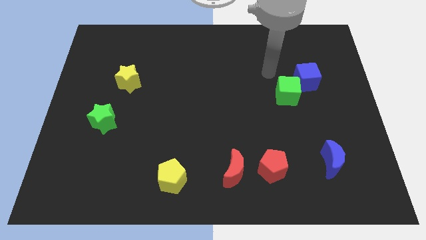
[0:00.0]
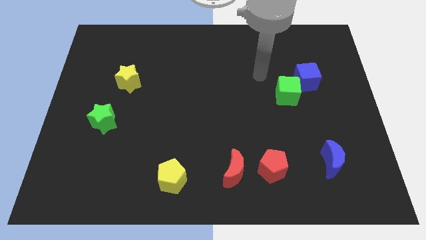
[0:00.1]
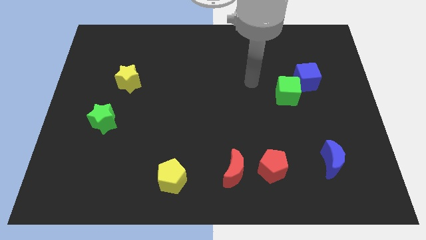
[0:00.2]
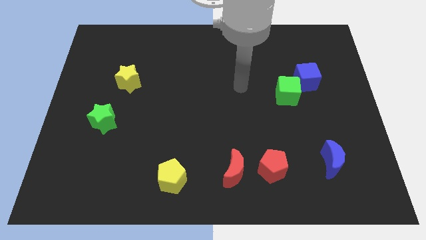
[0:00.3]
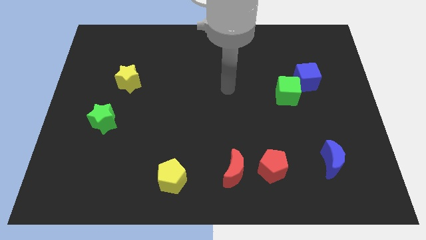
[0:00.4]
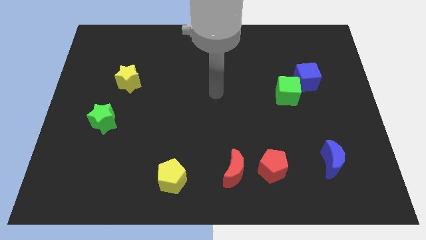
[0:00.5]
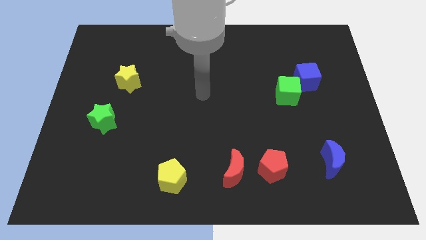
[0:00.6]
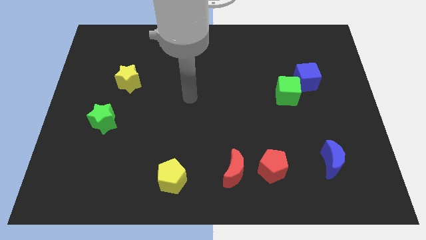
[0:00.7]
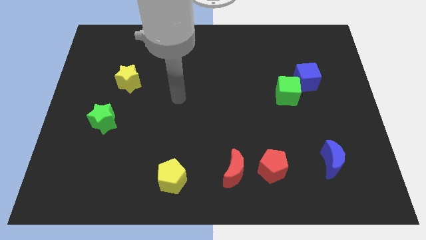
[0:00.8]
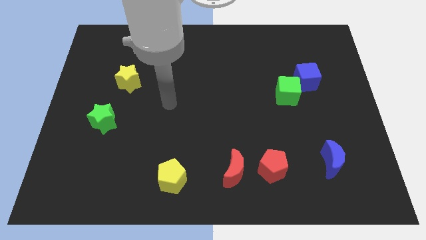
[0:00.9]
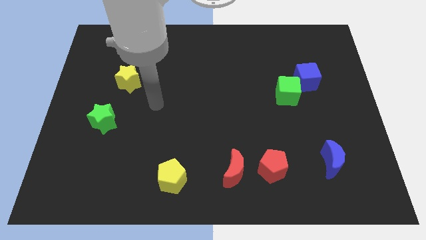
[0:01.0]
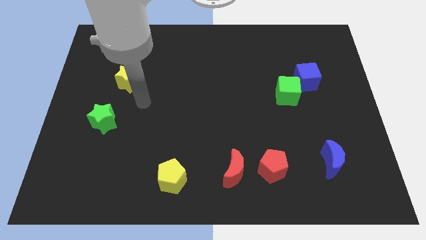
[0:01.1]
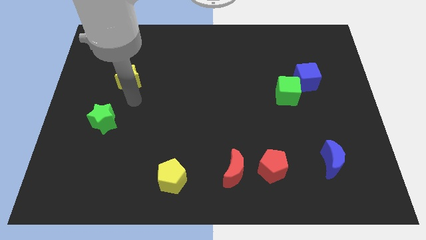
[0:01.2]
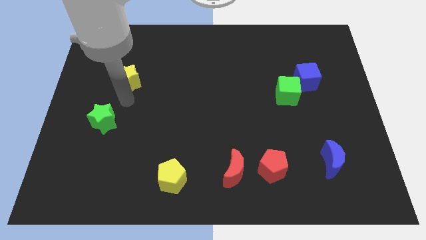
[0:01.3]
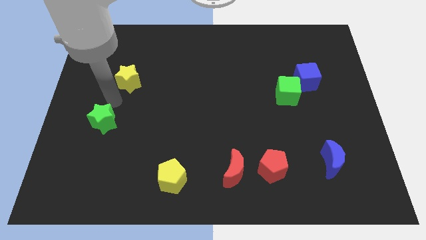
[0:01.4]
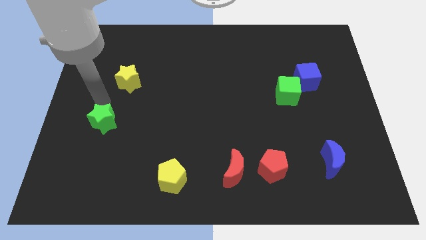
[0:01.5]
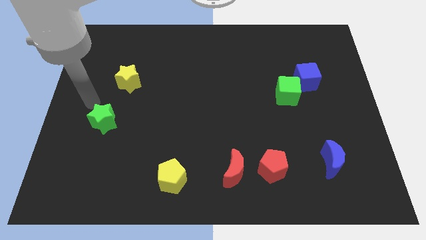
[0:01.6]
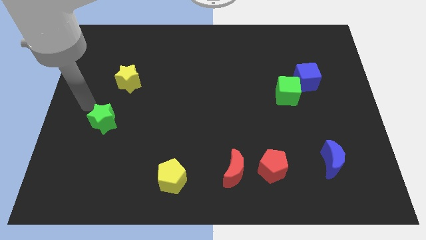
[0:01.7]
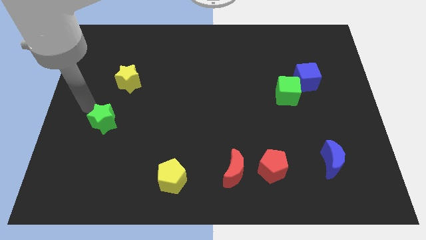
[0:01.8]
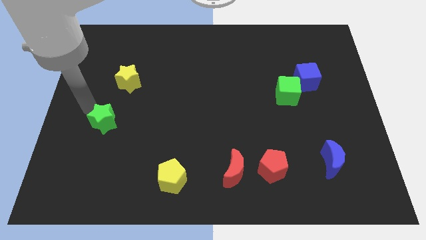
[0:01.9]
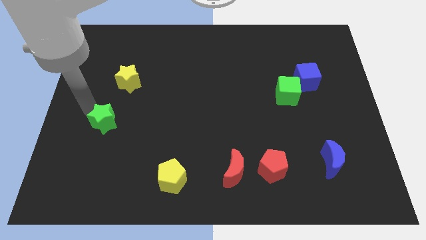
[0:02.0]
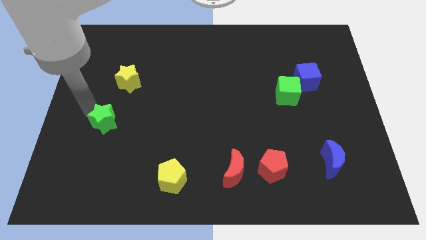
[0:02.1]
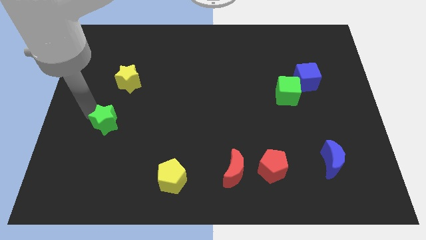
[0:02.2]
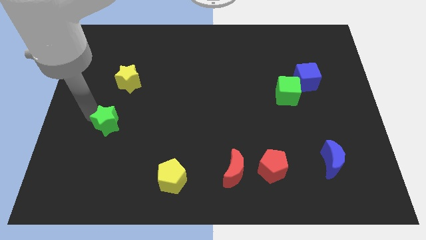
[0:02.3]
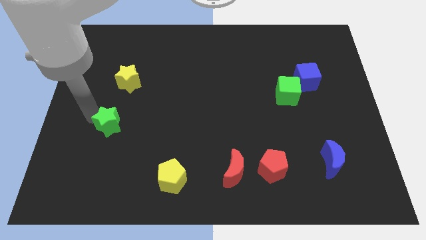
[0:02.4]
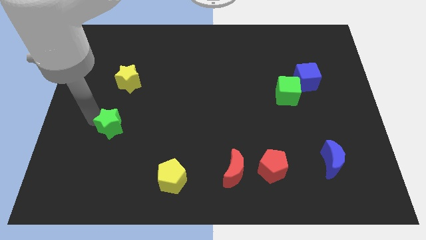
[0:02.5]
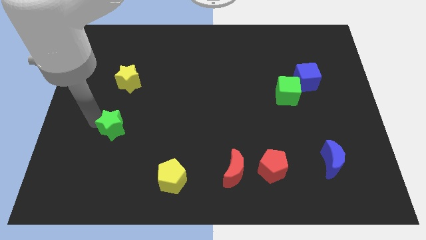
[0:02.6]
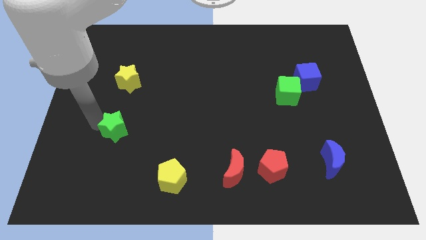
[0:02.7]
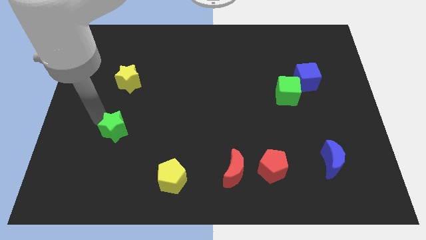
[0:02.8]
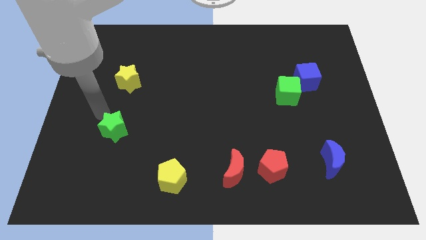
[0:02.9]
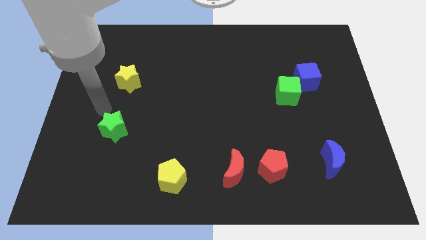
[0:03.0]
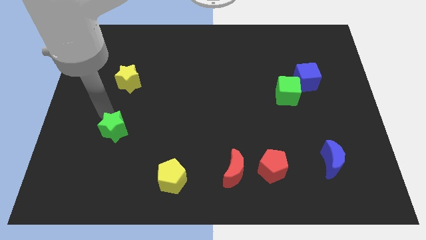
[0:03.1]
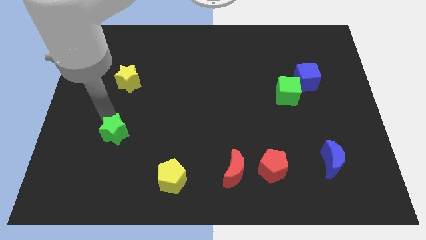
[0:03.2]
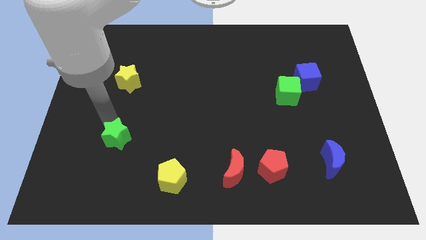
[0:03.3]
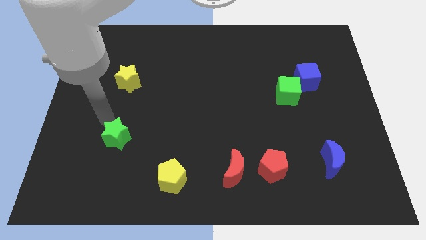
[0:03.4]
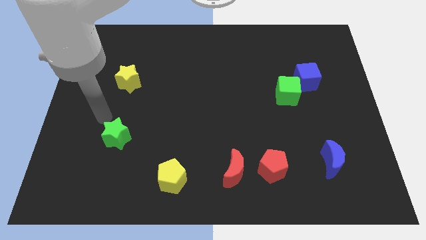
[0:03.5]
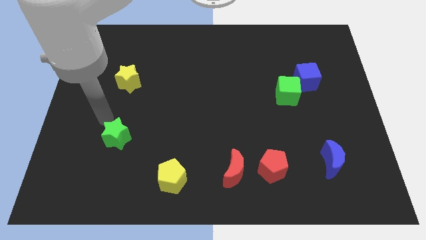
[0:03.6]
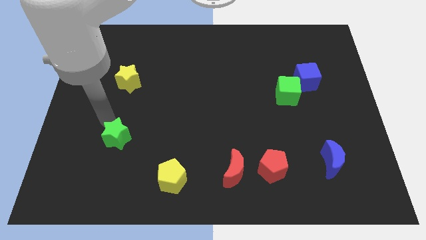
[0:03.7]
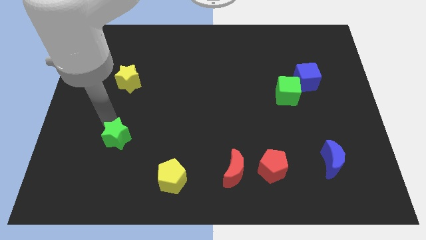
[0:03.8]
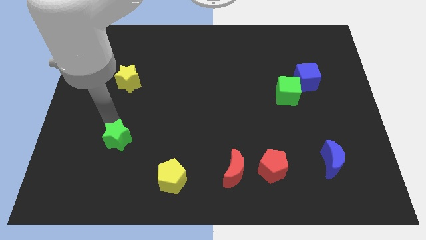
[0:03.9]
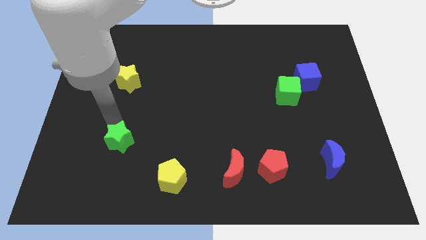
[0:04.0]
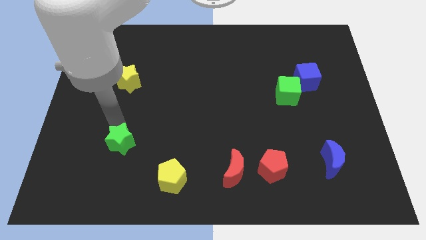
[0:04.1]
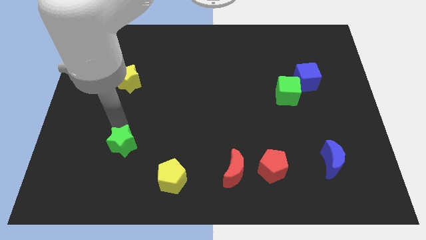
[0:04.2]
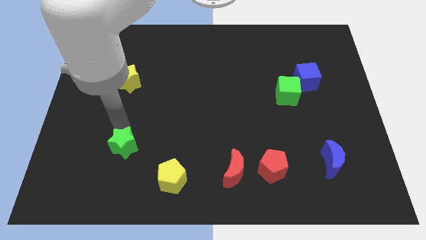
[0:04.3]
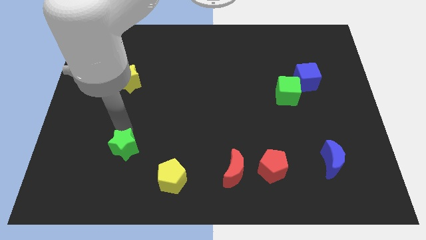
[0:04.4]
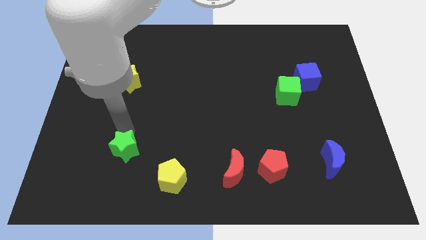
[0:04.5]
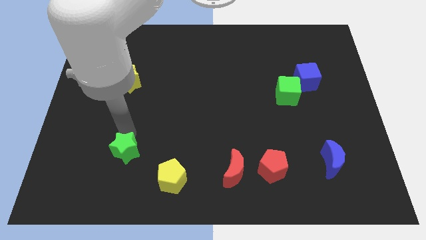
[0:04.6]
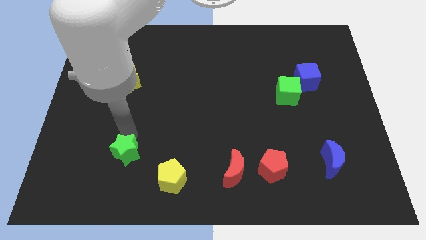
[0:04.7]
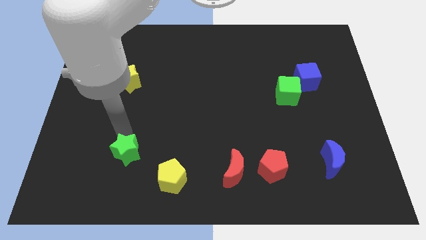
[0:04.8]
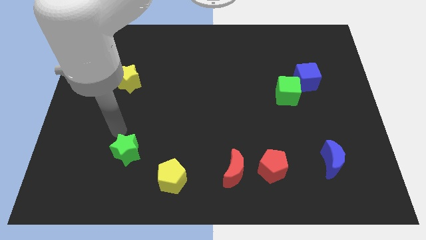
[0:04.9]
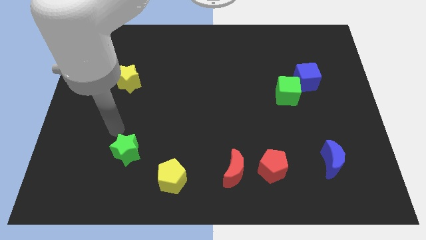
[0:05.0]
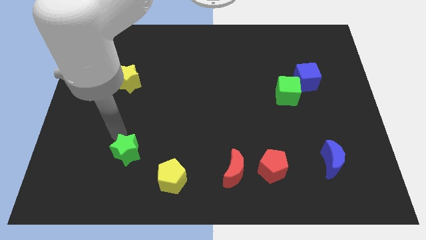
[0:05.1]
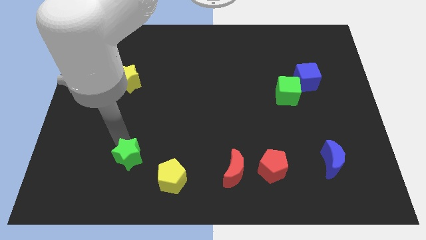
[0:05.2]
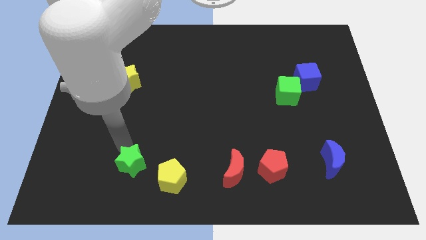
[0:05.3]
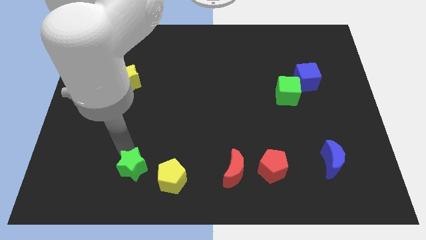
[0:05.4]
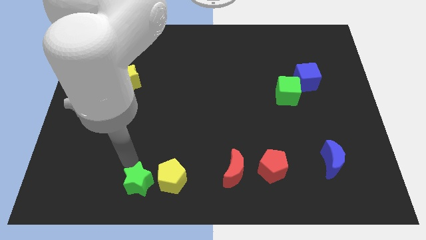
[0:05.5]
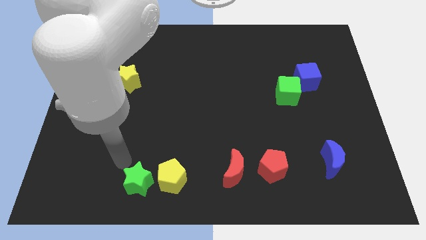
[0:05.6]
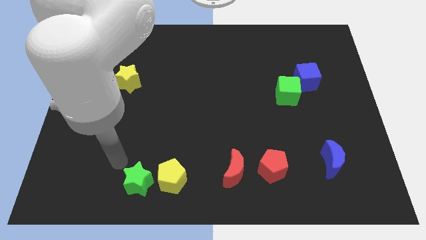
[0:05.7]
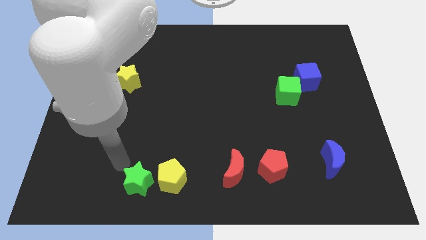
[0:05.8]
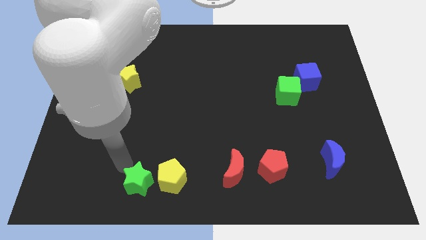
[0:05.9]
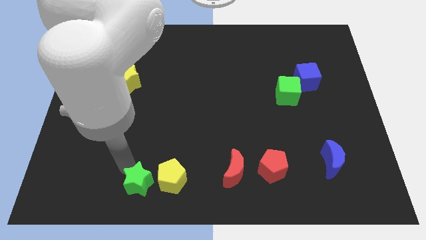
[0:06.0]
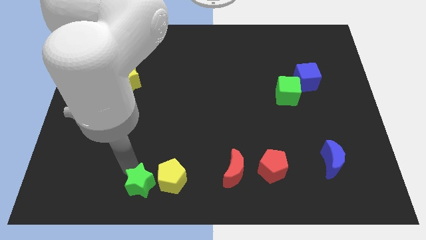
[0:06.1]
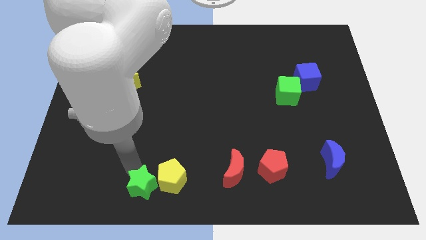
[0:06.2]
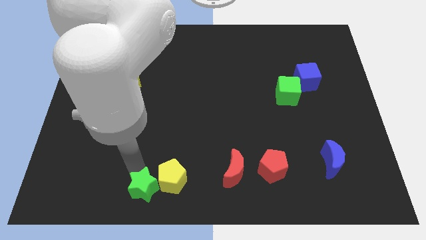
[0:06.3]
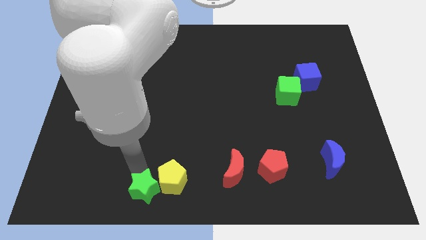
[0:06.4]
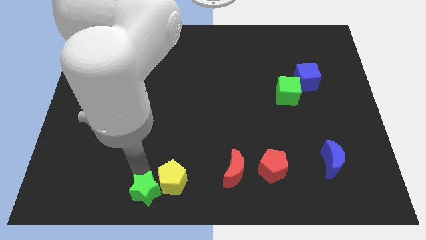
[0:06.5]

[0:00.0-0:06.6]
put the green star to the bottom side

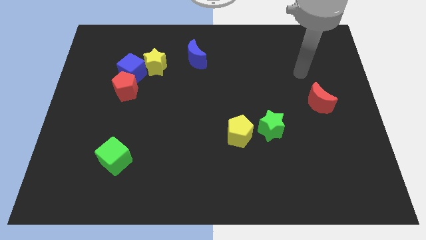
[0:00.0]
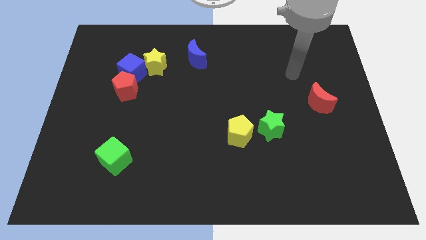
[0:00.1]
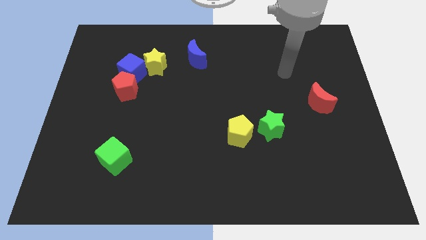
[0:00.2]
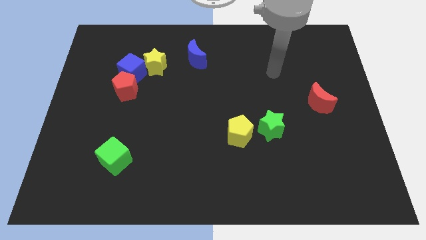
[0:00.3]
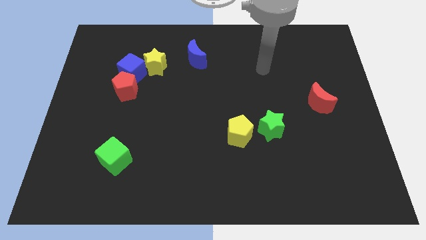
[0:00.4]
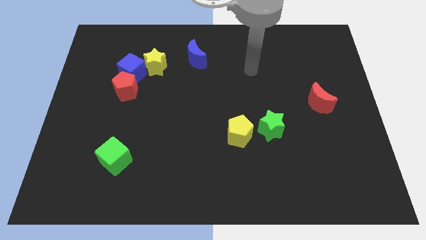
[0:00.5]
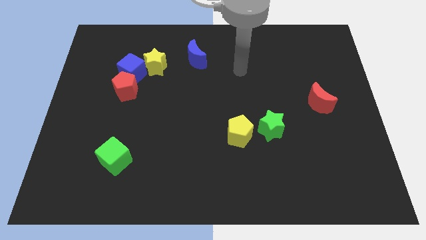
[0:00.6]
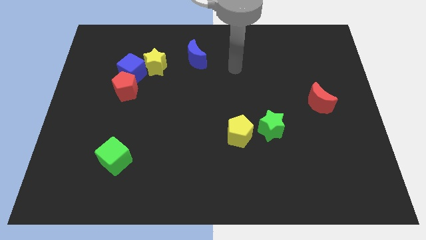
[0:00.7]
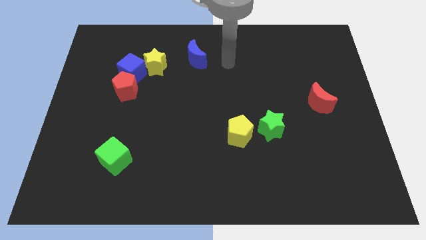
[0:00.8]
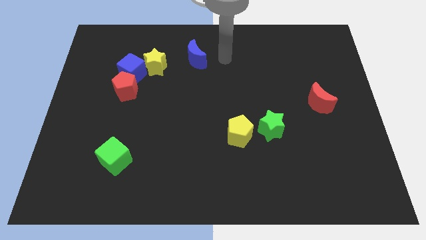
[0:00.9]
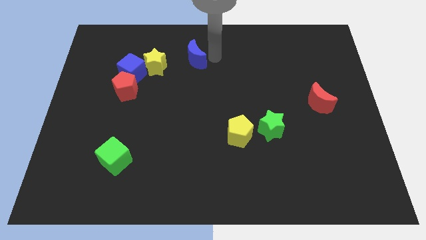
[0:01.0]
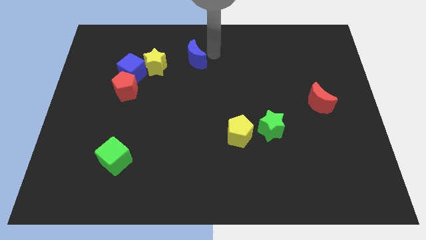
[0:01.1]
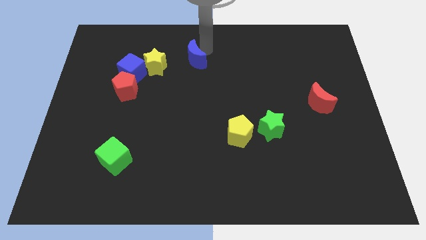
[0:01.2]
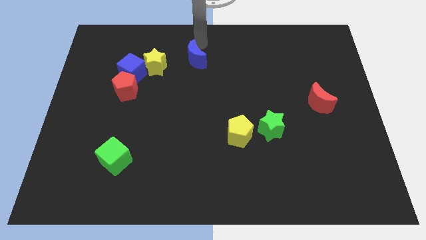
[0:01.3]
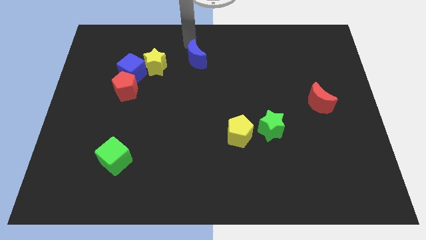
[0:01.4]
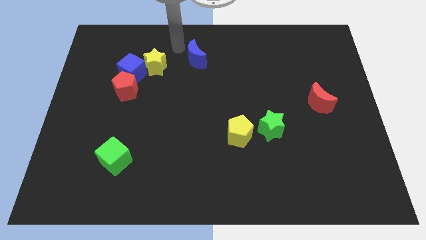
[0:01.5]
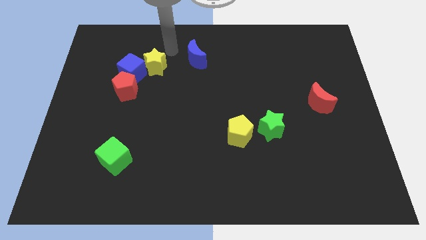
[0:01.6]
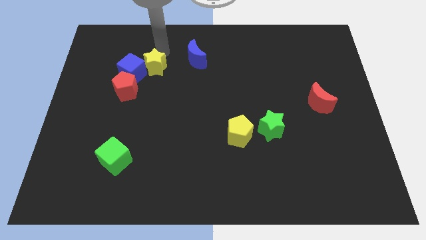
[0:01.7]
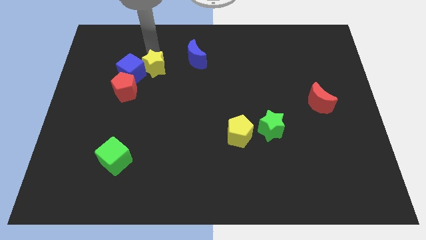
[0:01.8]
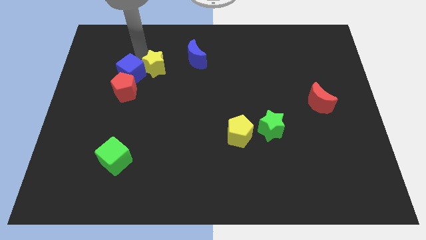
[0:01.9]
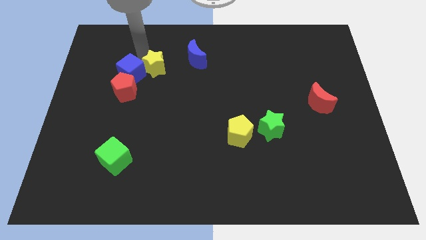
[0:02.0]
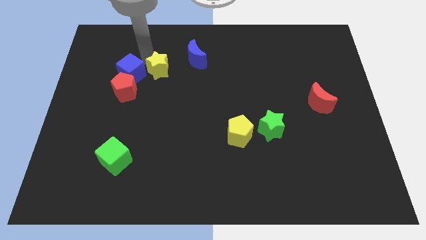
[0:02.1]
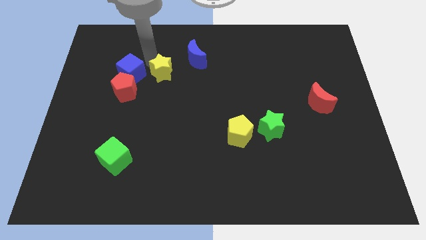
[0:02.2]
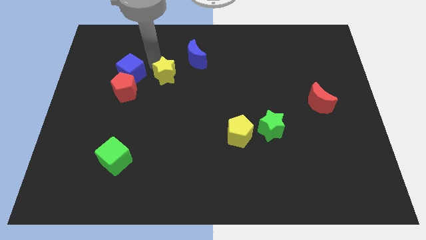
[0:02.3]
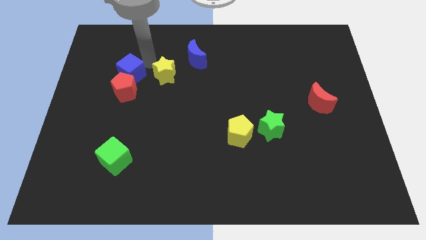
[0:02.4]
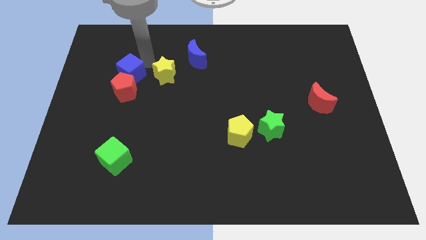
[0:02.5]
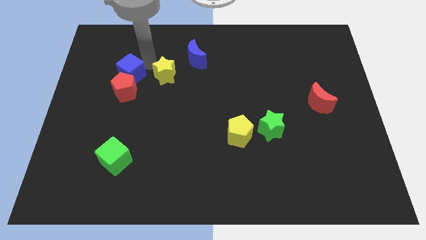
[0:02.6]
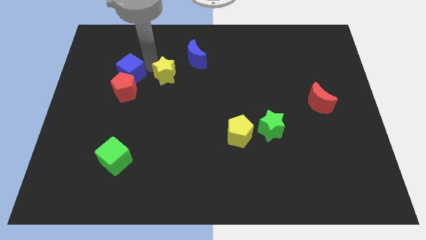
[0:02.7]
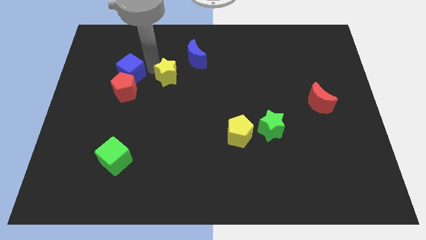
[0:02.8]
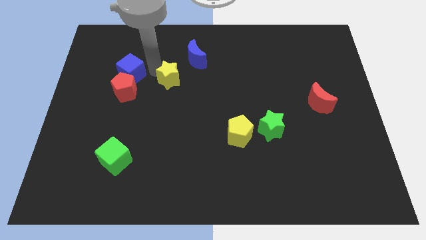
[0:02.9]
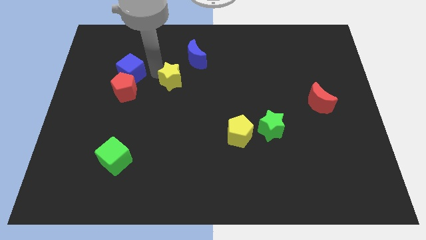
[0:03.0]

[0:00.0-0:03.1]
put the yellow star to the middle of the board
